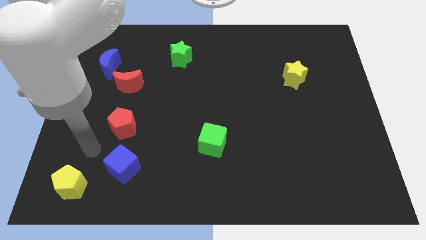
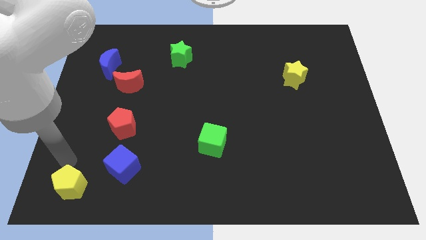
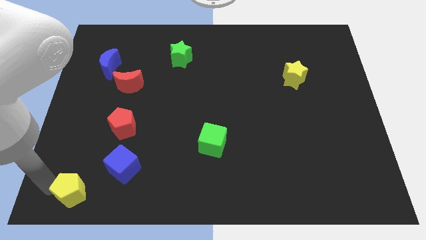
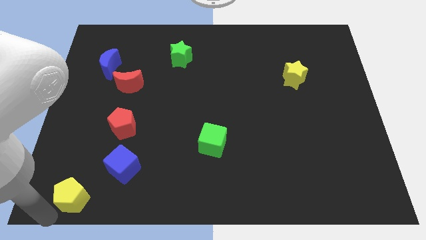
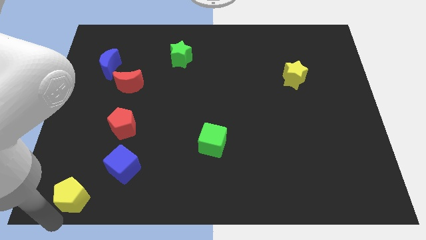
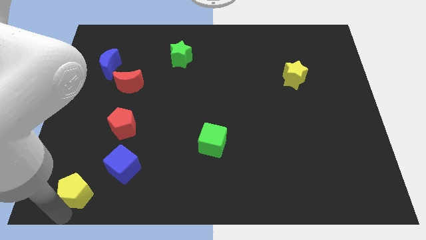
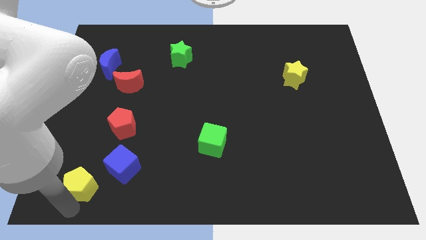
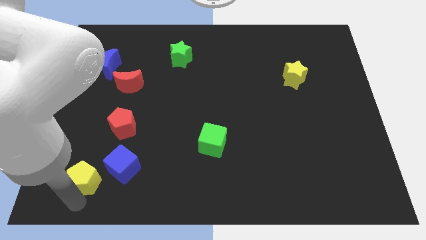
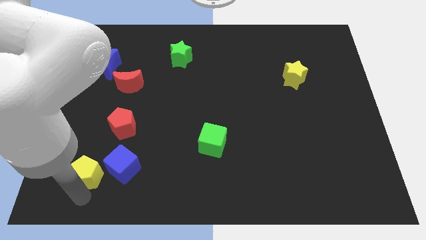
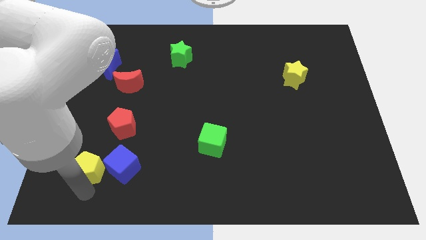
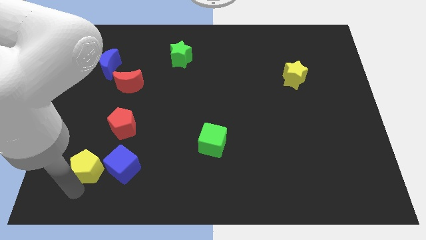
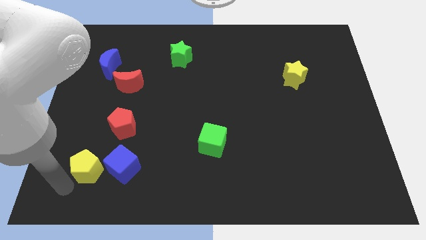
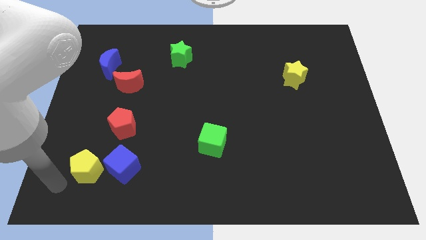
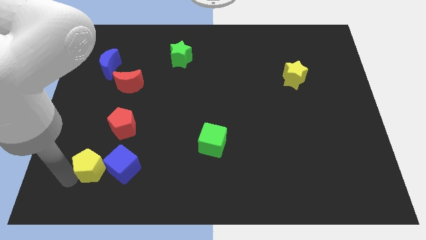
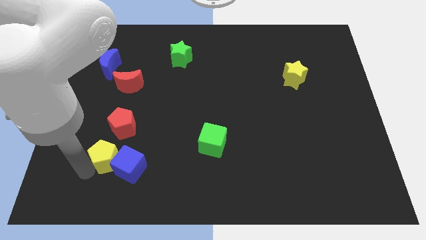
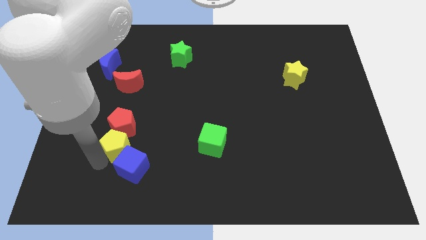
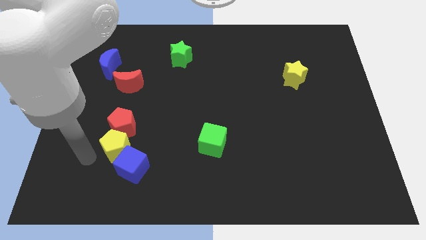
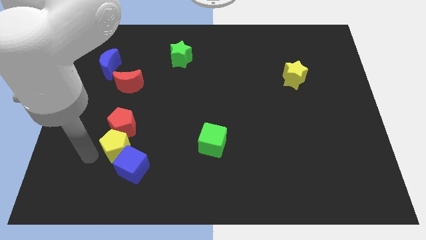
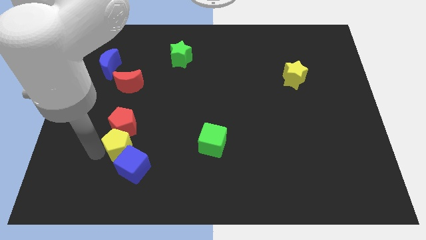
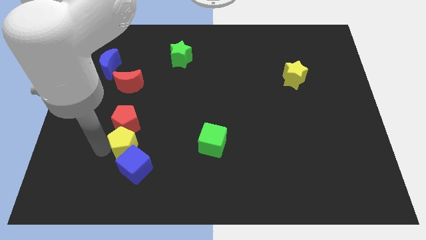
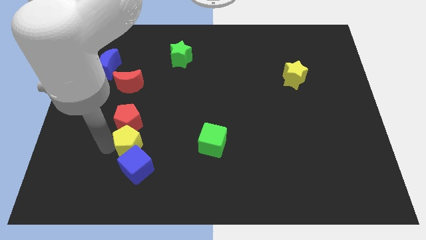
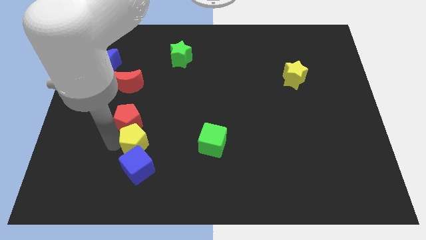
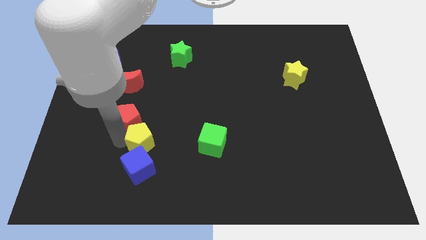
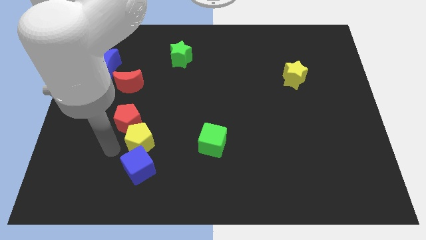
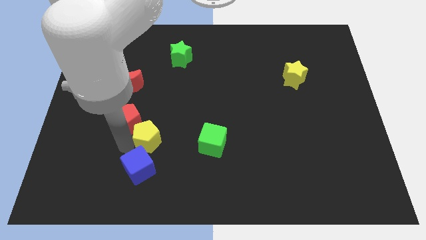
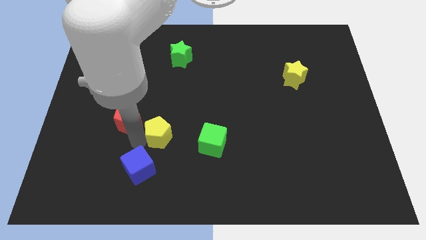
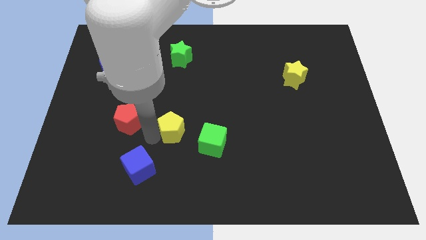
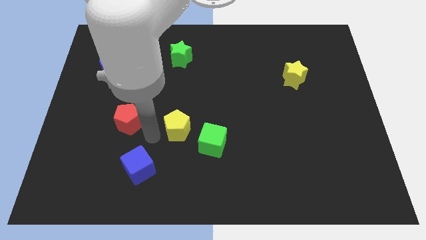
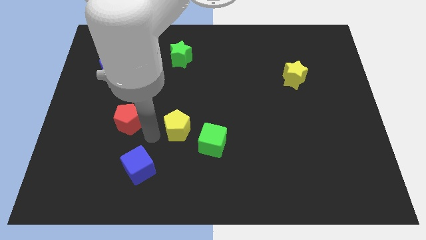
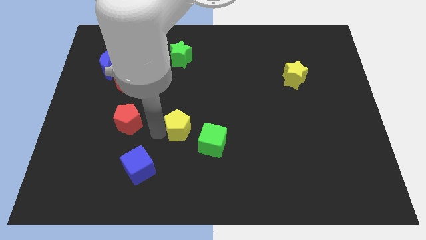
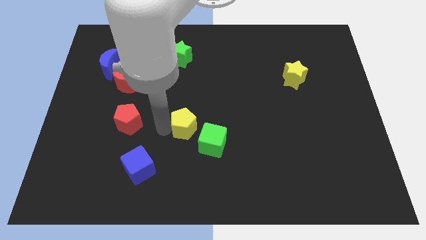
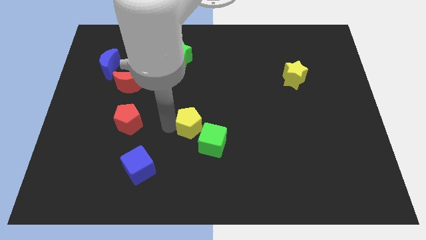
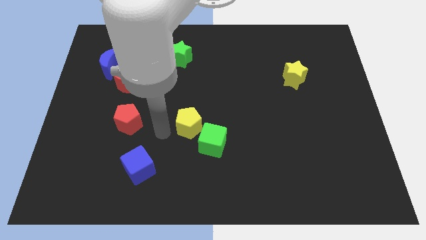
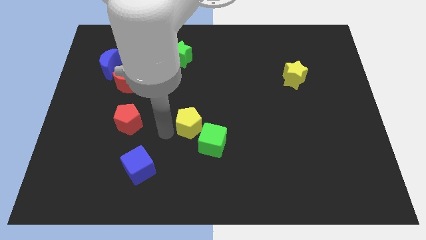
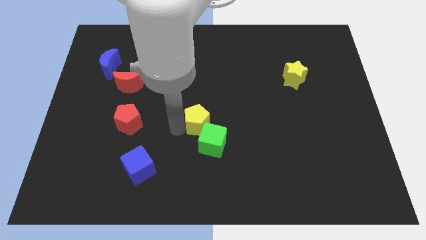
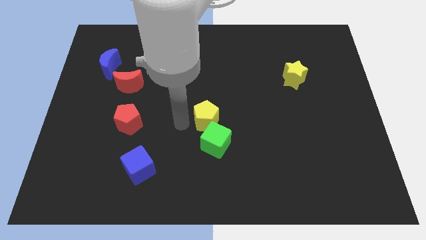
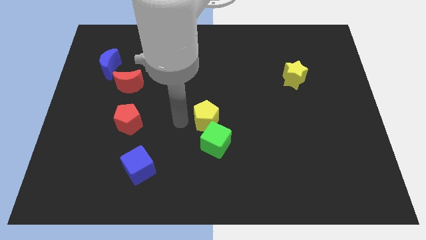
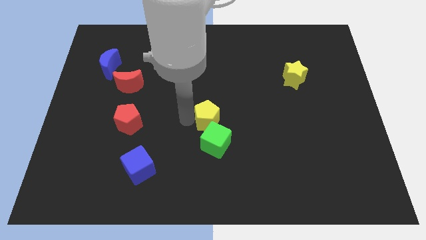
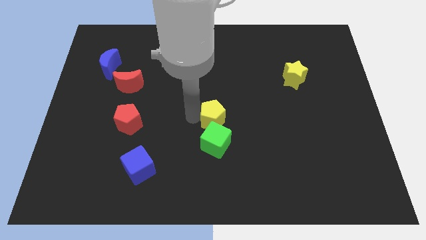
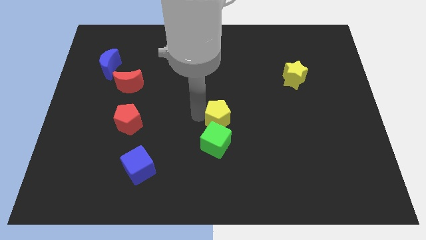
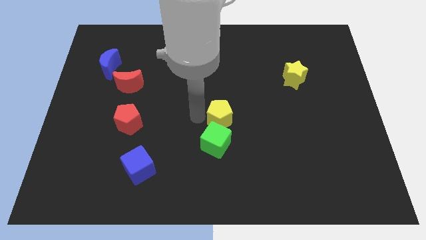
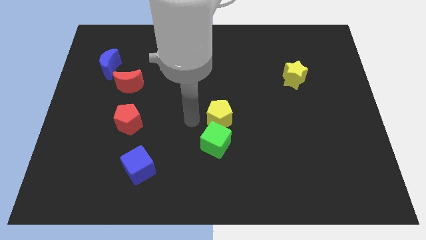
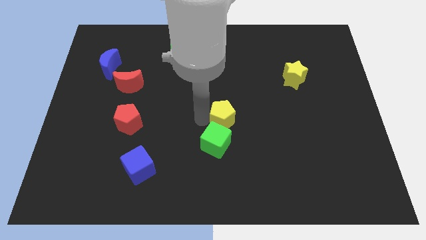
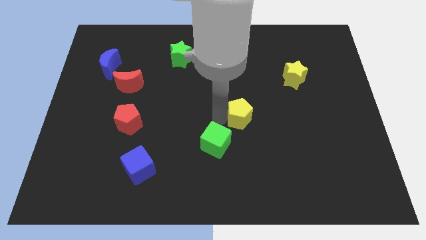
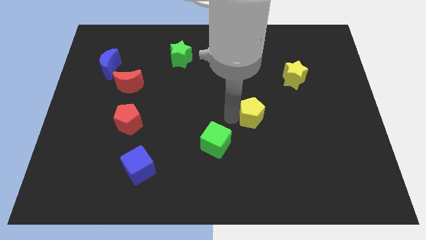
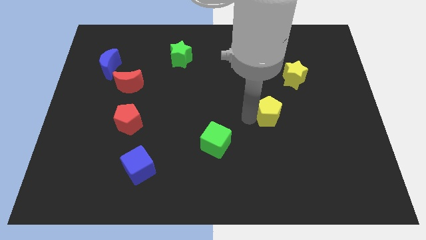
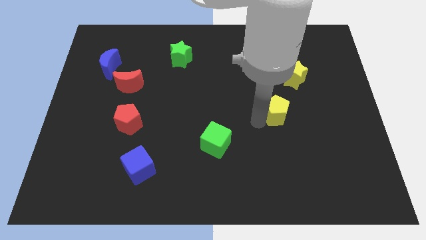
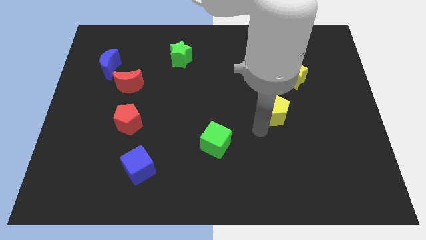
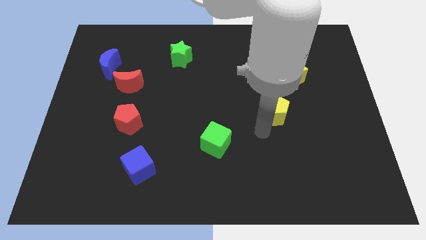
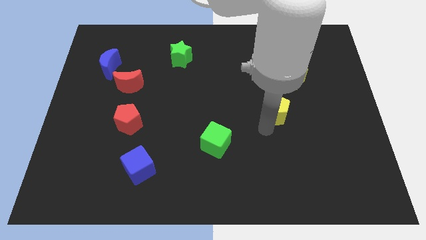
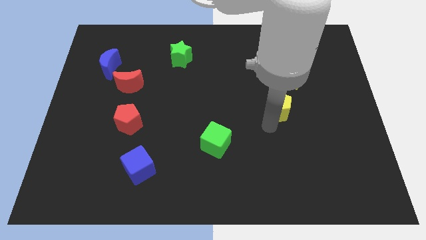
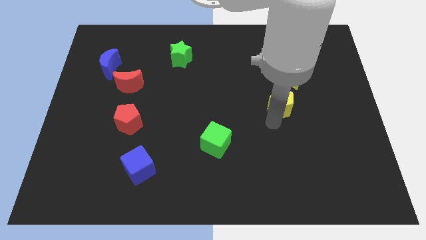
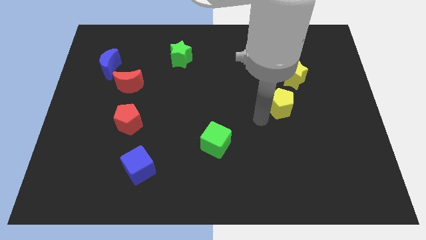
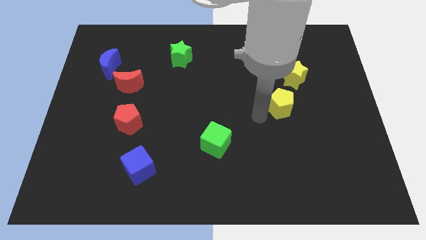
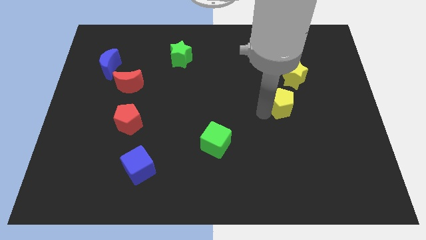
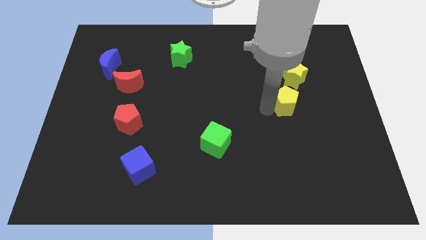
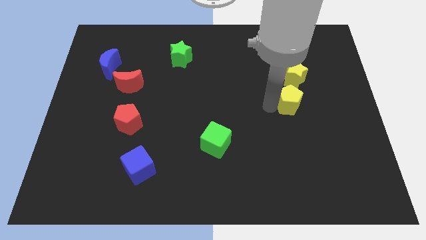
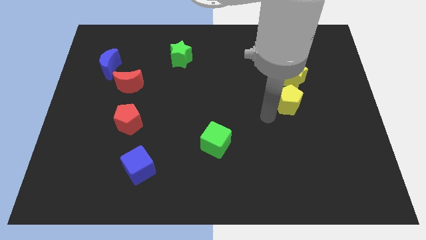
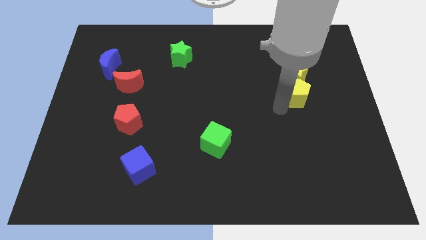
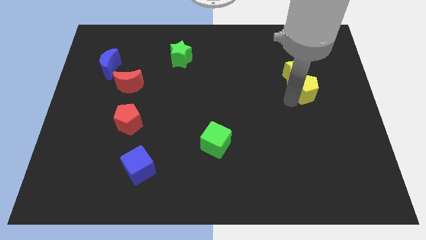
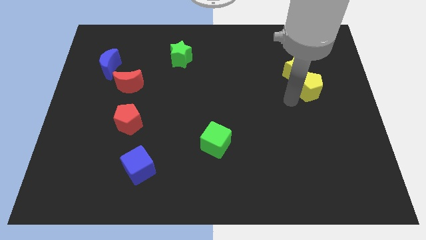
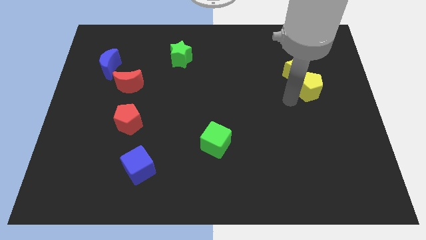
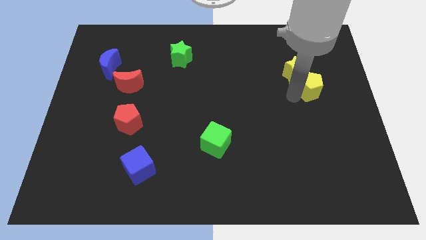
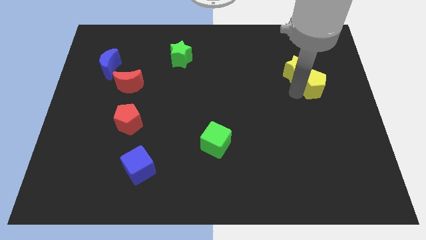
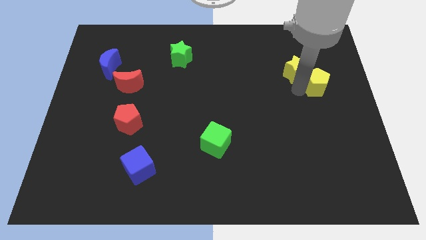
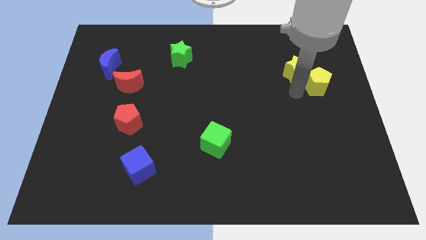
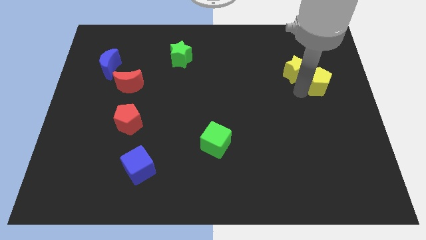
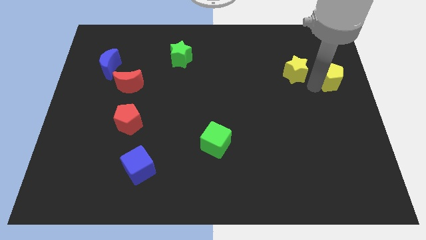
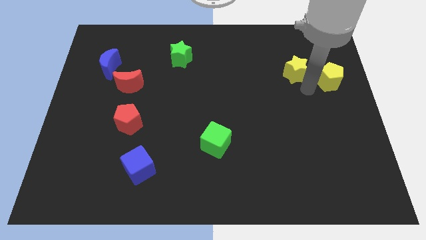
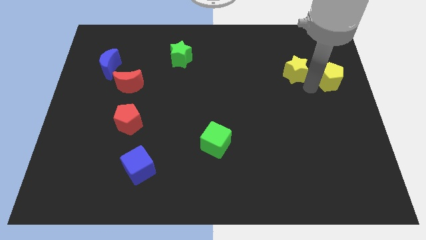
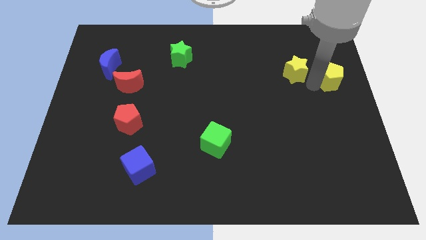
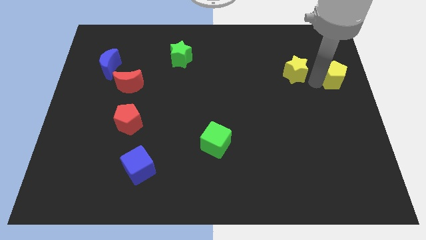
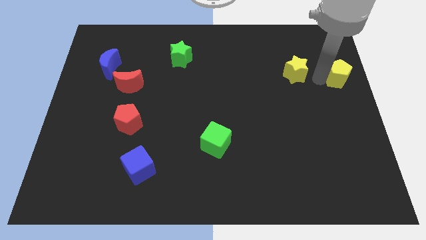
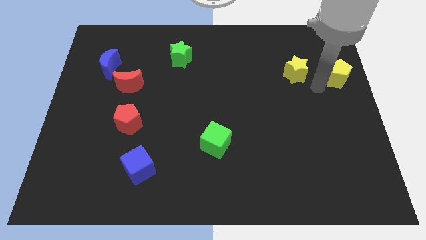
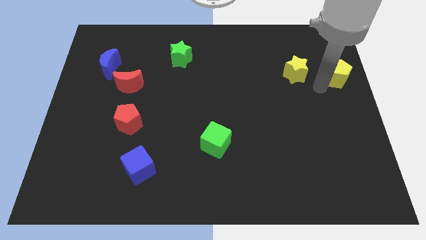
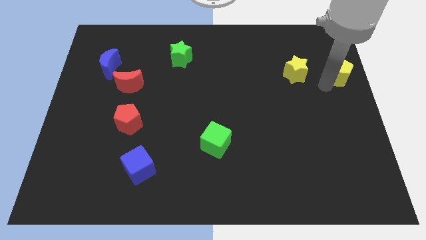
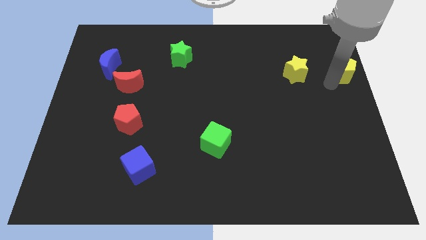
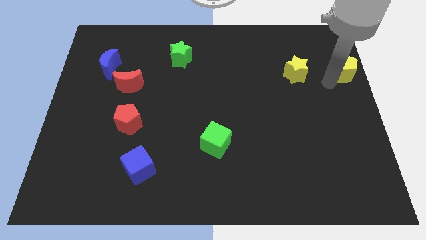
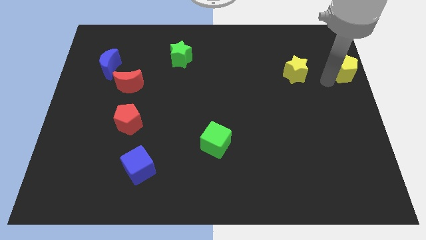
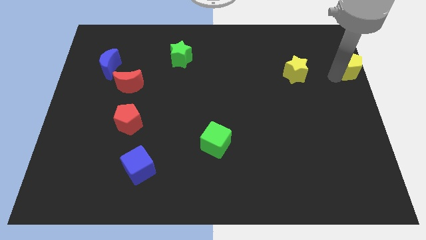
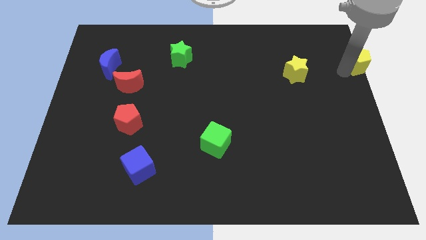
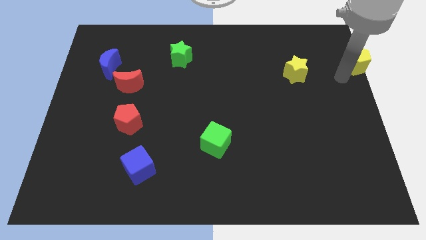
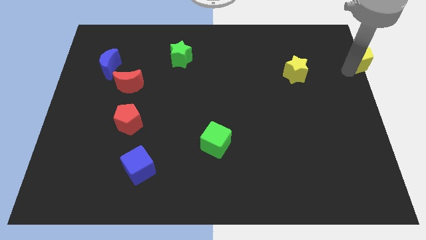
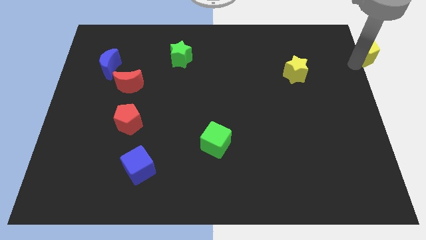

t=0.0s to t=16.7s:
slide the yellow pentagon to the top right corner
